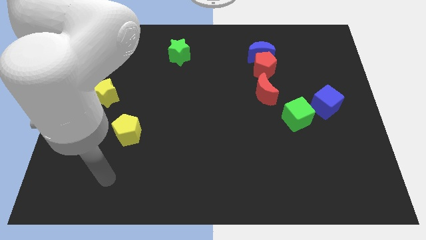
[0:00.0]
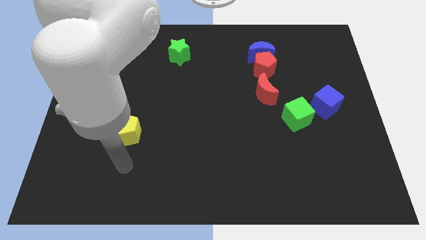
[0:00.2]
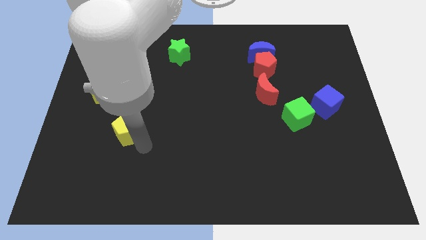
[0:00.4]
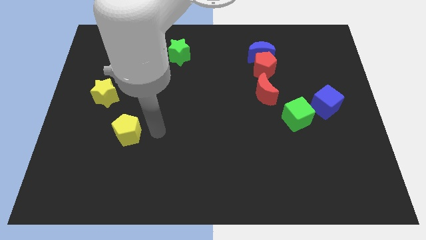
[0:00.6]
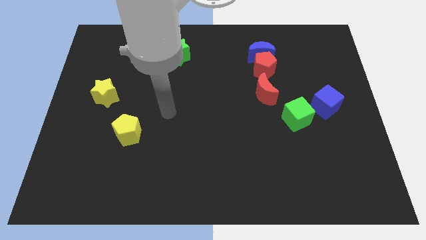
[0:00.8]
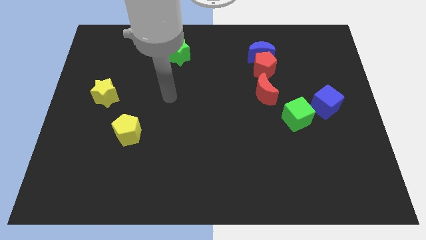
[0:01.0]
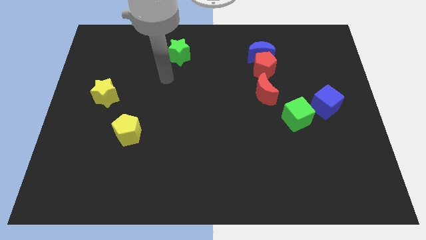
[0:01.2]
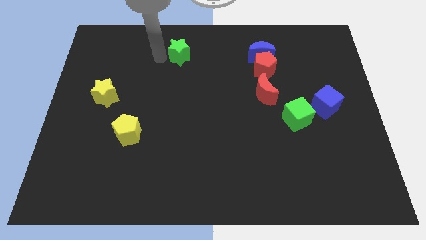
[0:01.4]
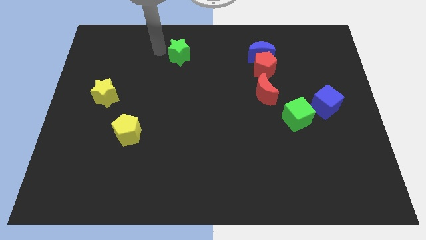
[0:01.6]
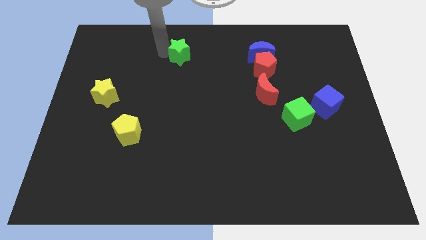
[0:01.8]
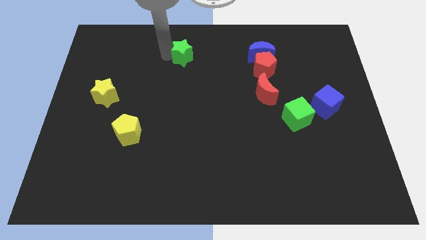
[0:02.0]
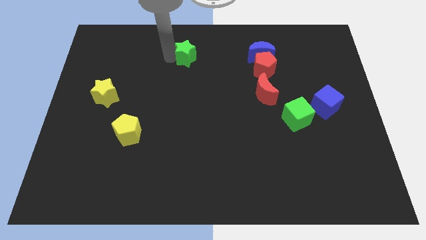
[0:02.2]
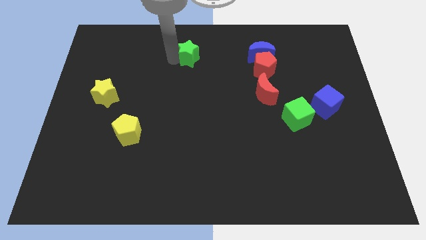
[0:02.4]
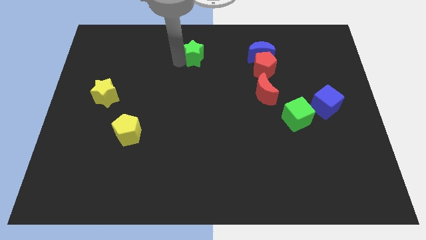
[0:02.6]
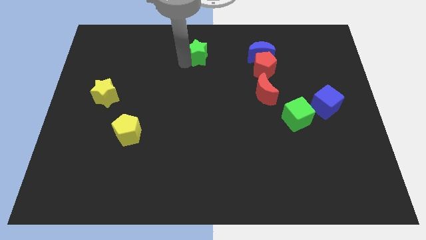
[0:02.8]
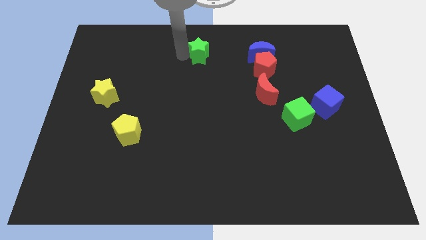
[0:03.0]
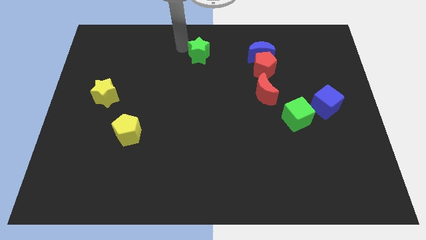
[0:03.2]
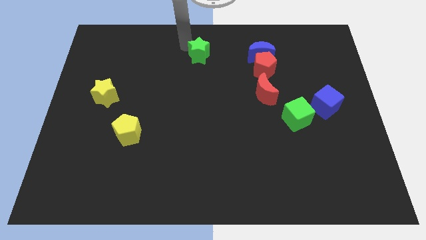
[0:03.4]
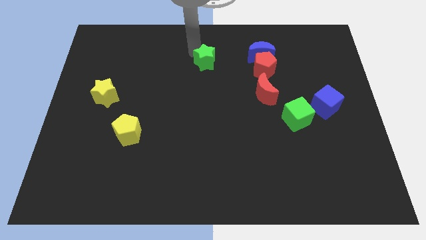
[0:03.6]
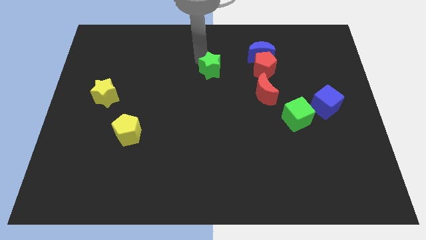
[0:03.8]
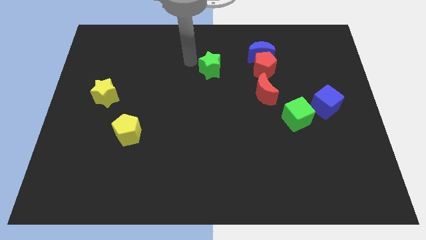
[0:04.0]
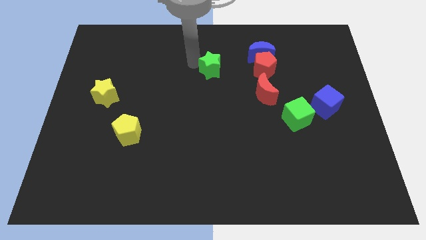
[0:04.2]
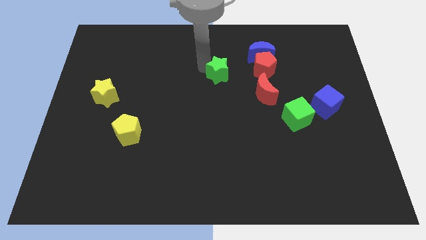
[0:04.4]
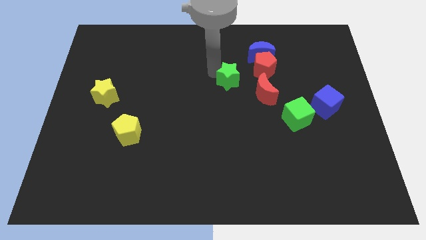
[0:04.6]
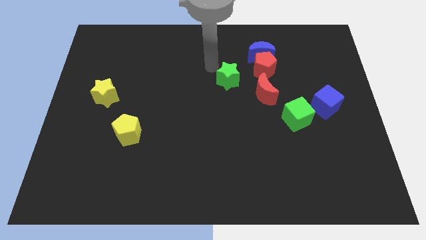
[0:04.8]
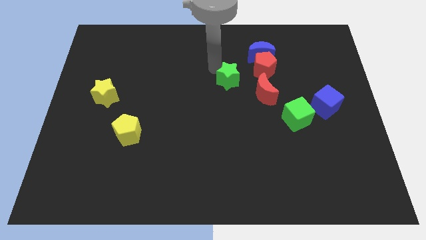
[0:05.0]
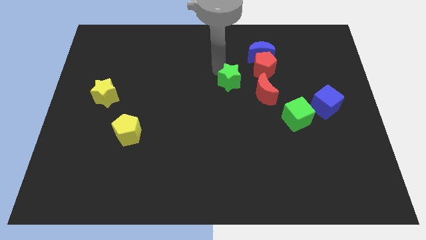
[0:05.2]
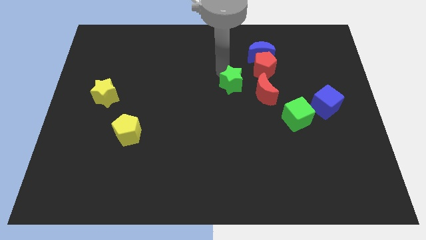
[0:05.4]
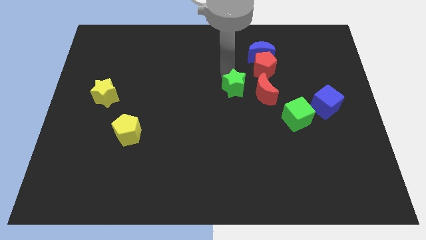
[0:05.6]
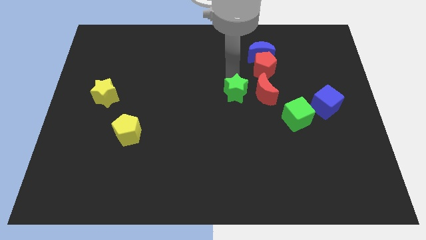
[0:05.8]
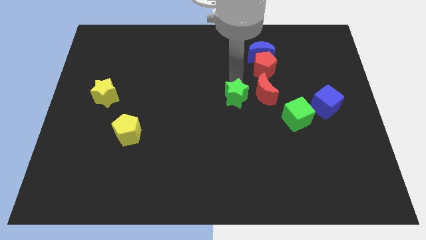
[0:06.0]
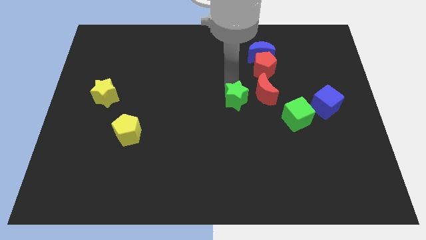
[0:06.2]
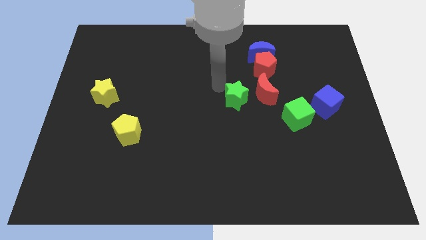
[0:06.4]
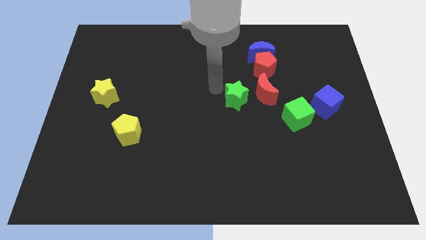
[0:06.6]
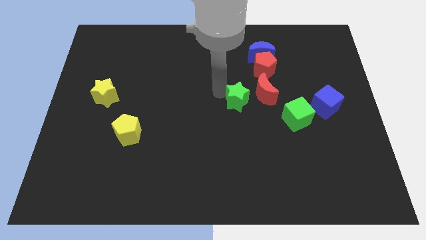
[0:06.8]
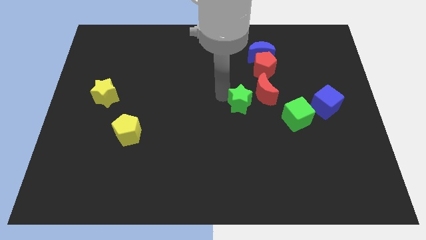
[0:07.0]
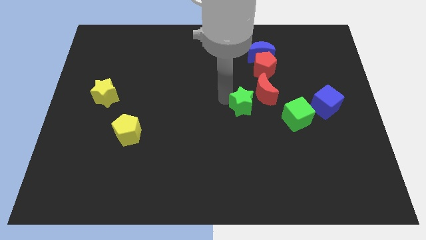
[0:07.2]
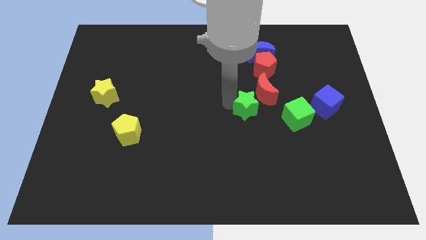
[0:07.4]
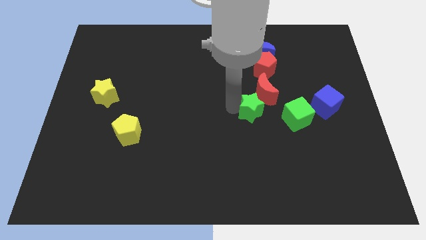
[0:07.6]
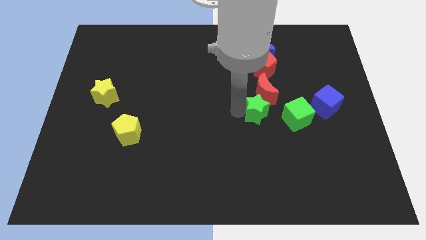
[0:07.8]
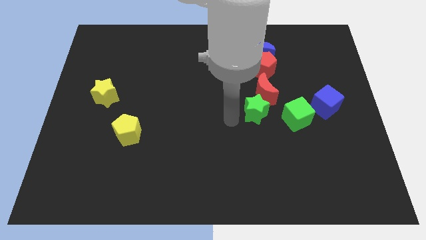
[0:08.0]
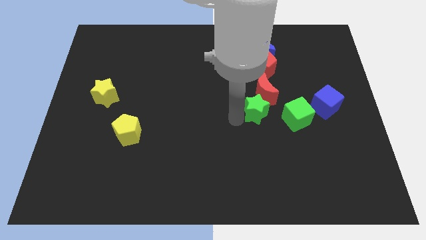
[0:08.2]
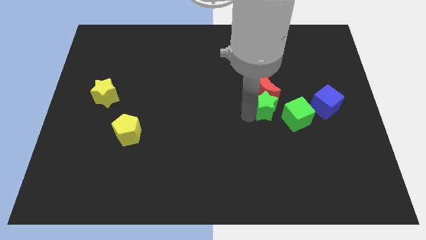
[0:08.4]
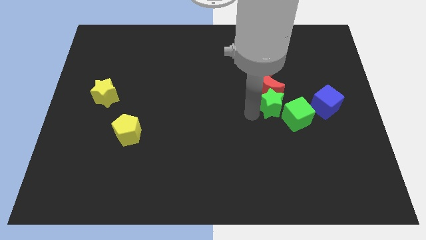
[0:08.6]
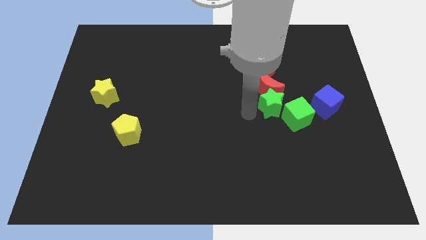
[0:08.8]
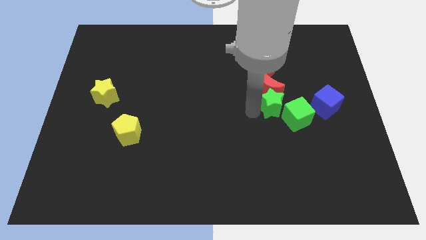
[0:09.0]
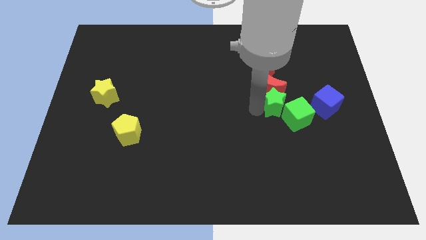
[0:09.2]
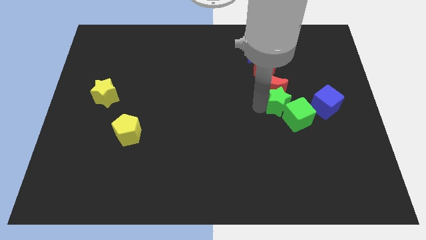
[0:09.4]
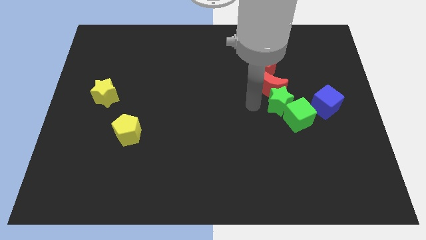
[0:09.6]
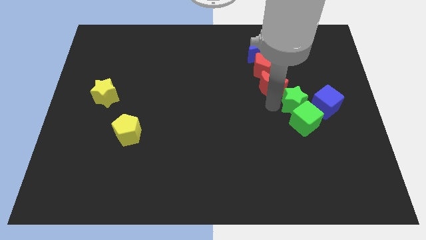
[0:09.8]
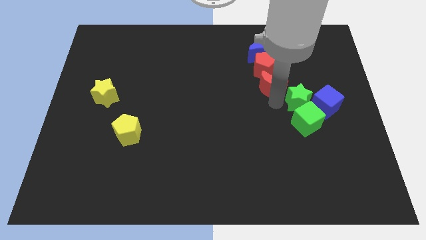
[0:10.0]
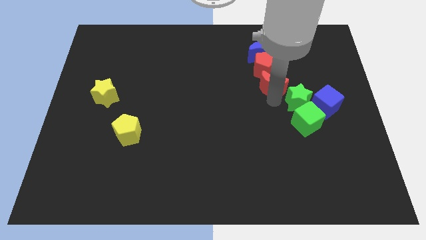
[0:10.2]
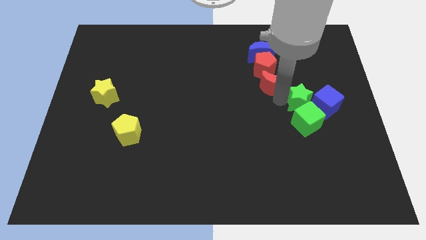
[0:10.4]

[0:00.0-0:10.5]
slide the green star towards the blue cube

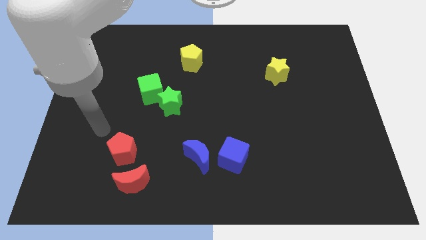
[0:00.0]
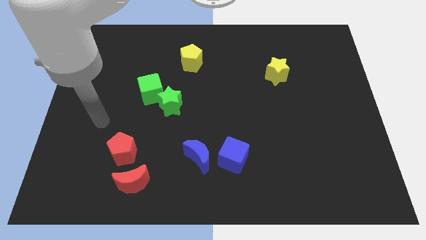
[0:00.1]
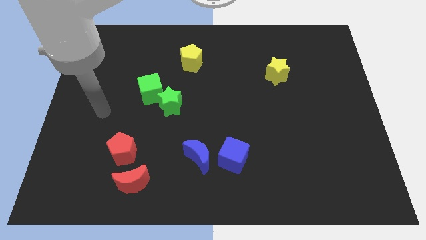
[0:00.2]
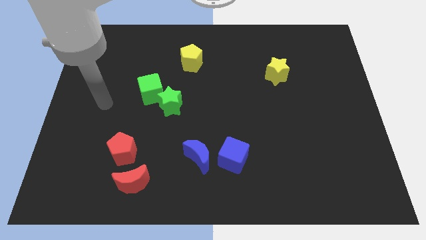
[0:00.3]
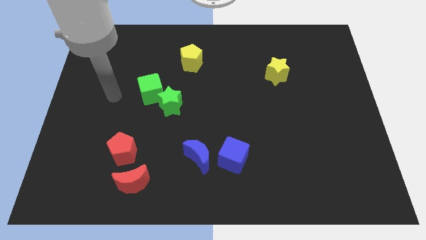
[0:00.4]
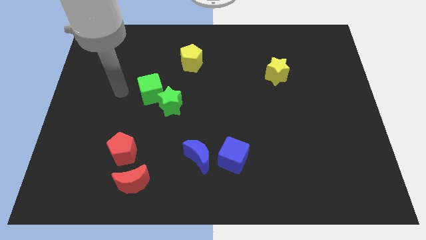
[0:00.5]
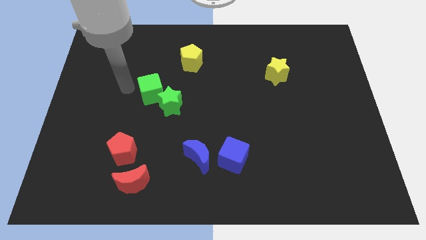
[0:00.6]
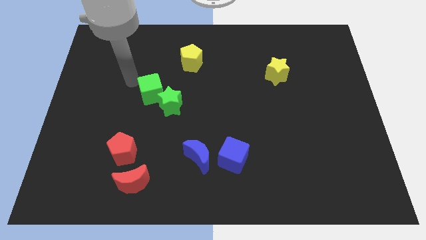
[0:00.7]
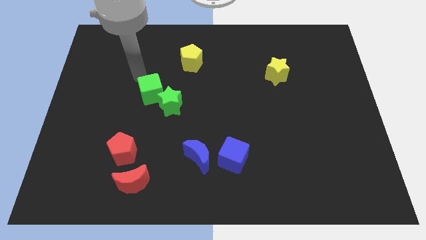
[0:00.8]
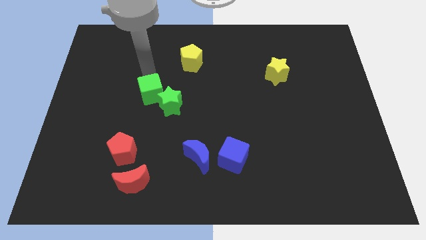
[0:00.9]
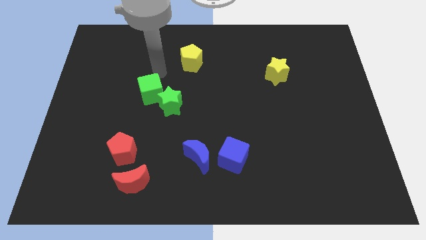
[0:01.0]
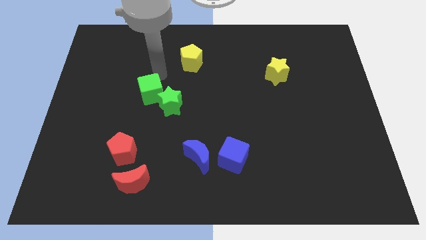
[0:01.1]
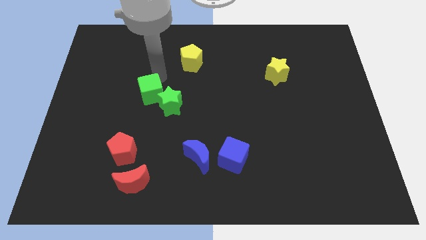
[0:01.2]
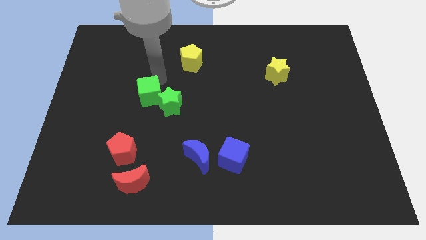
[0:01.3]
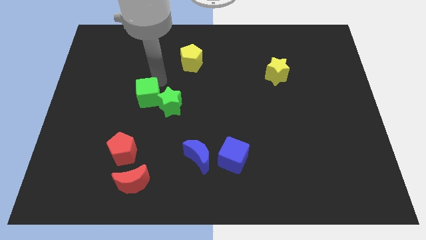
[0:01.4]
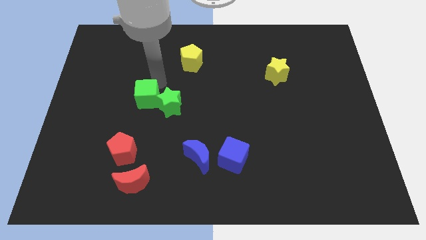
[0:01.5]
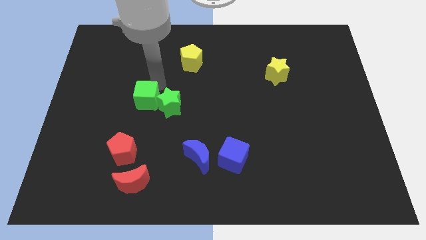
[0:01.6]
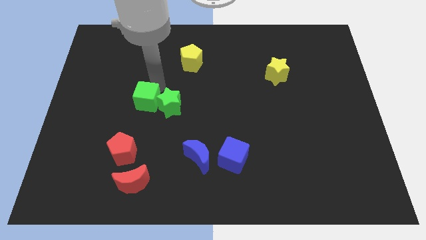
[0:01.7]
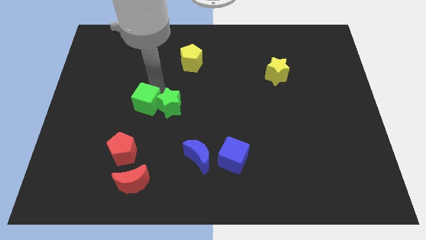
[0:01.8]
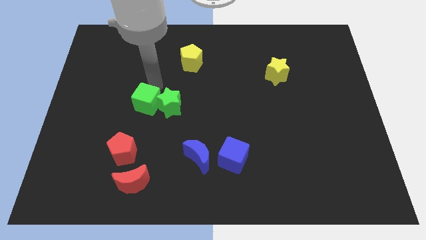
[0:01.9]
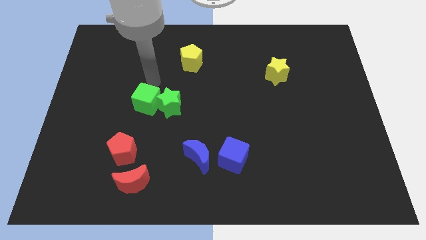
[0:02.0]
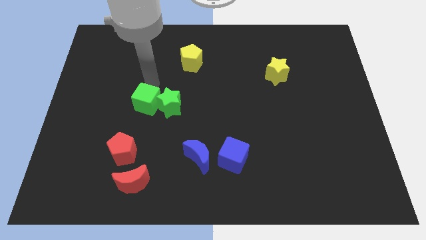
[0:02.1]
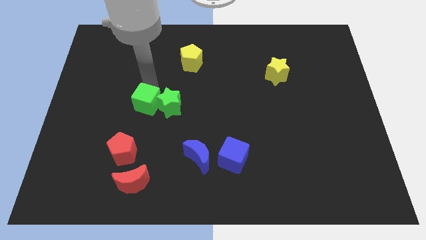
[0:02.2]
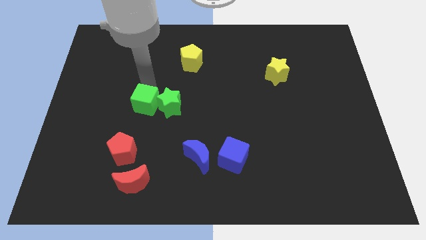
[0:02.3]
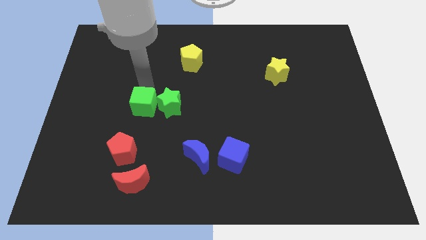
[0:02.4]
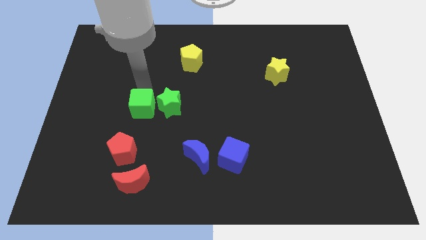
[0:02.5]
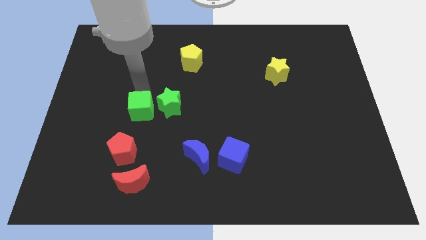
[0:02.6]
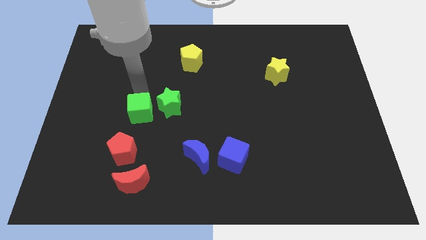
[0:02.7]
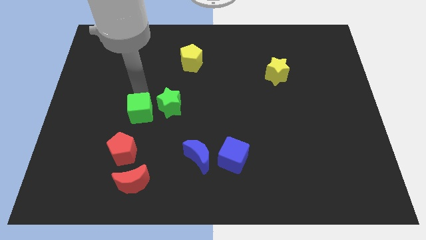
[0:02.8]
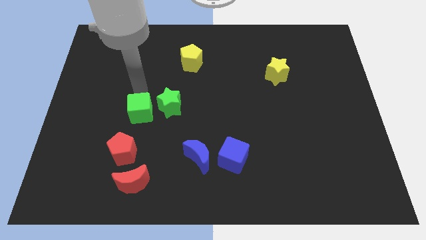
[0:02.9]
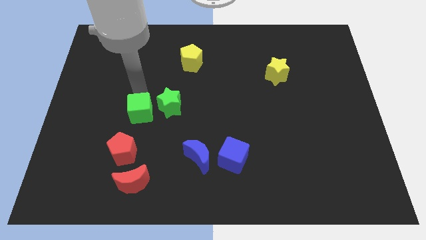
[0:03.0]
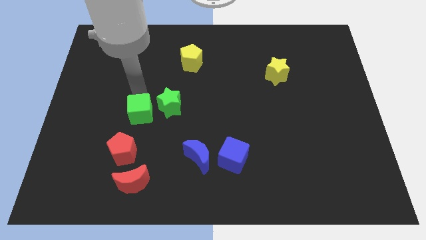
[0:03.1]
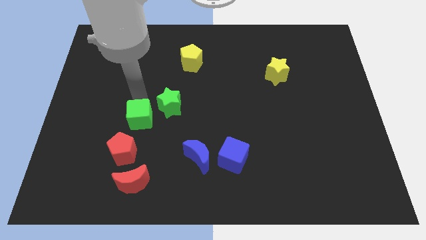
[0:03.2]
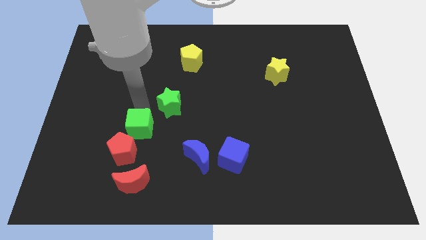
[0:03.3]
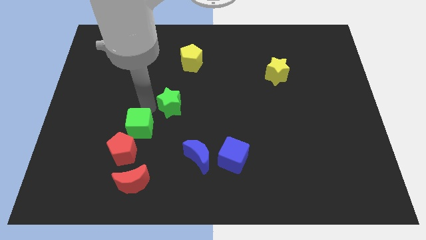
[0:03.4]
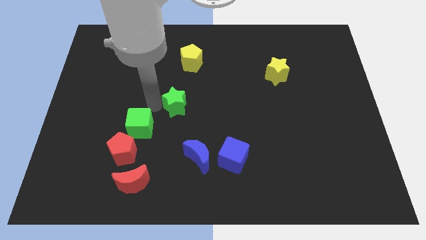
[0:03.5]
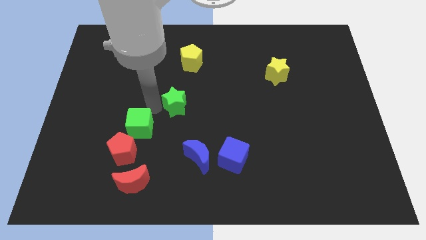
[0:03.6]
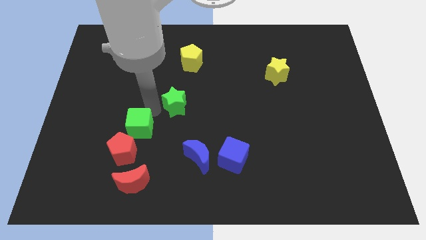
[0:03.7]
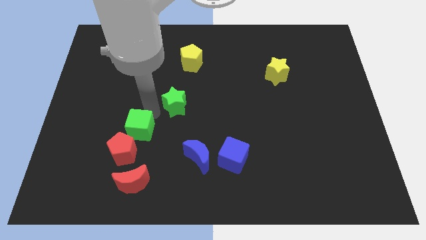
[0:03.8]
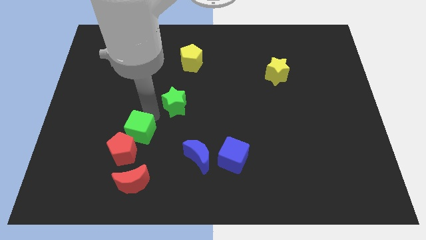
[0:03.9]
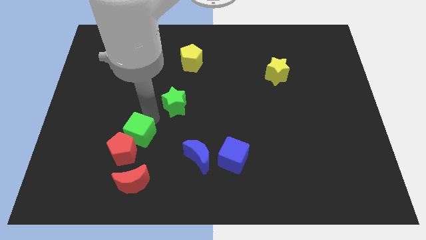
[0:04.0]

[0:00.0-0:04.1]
slide the green cube to the red pentagon
